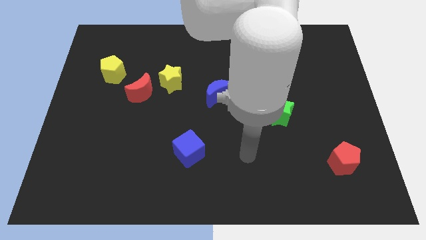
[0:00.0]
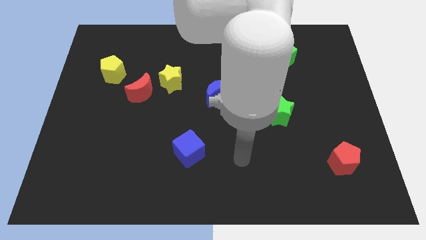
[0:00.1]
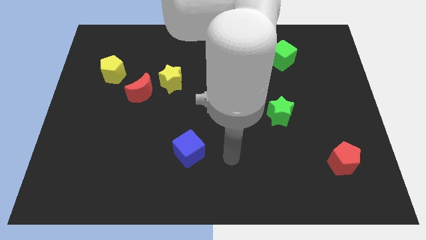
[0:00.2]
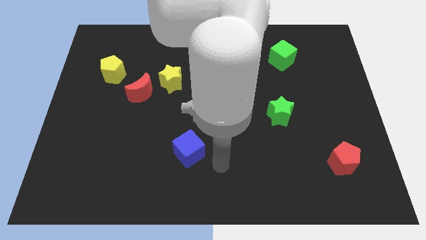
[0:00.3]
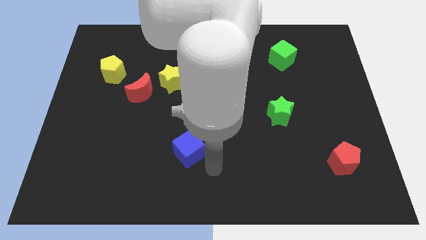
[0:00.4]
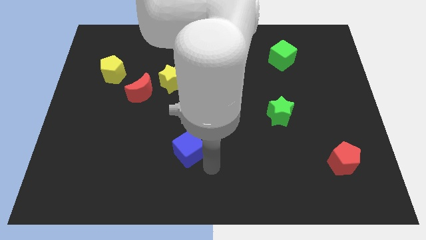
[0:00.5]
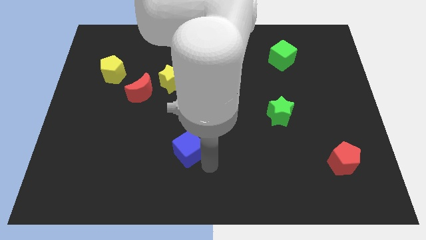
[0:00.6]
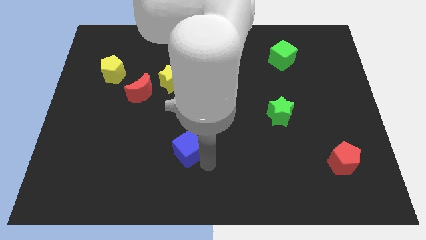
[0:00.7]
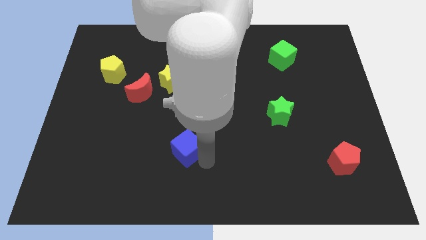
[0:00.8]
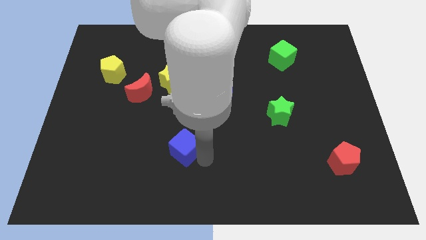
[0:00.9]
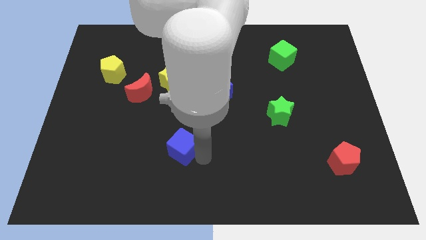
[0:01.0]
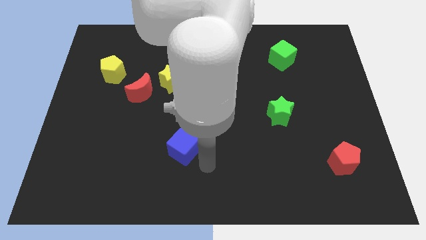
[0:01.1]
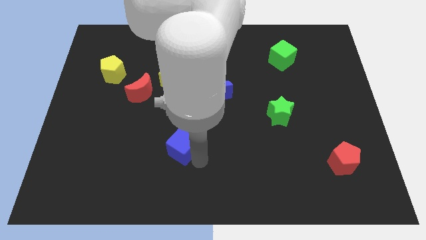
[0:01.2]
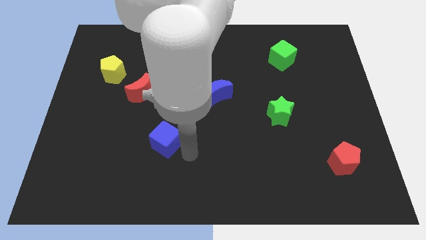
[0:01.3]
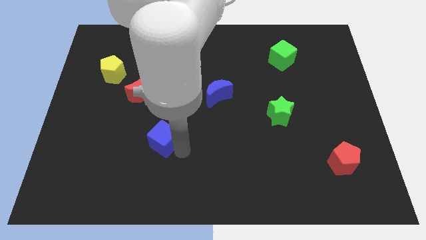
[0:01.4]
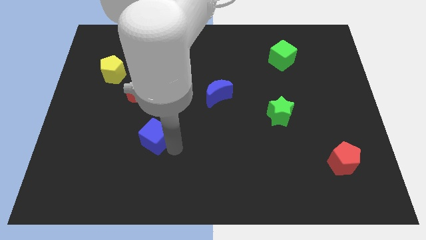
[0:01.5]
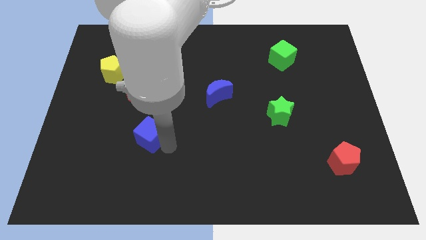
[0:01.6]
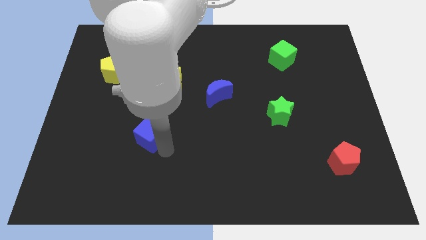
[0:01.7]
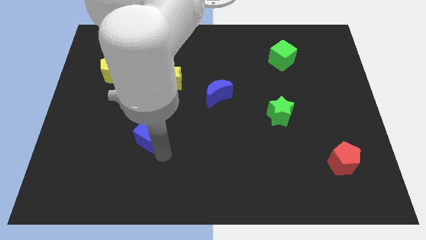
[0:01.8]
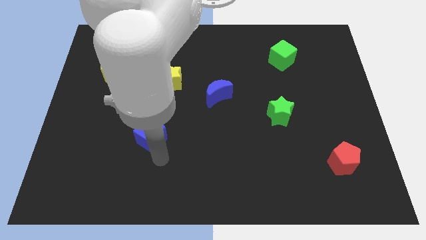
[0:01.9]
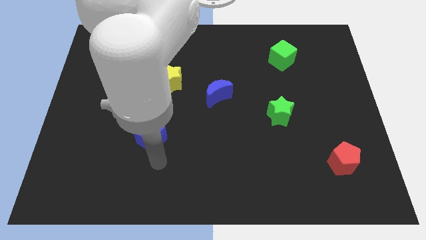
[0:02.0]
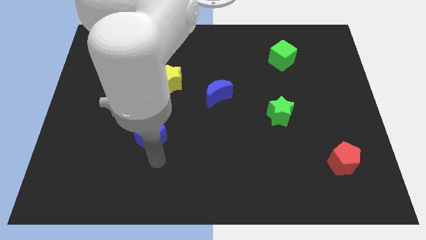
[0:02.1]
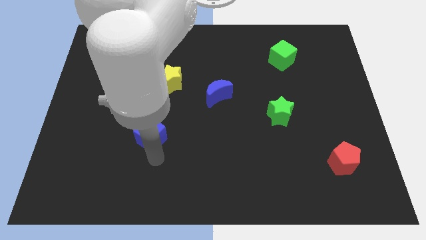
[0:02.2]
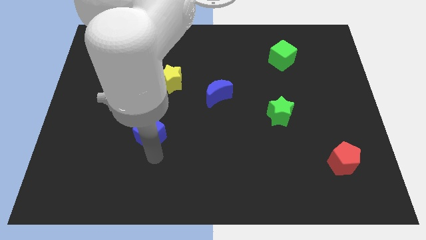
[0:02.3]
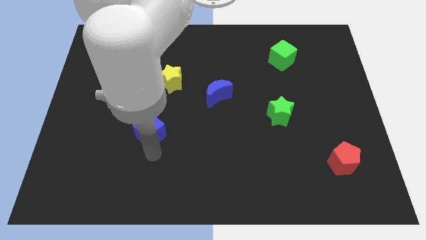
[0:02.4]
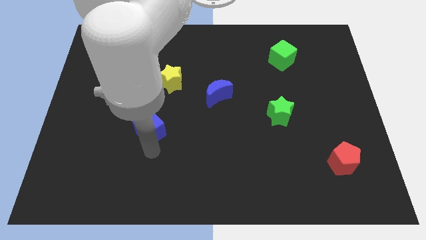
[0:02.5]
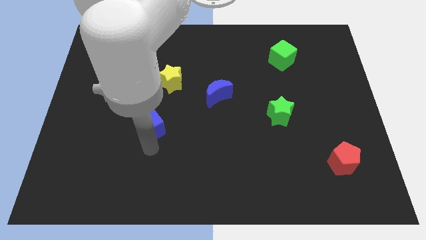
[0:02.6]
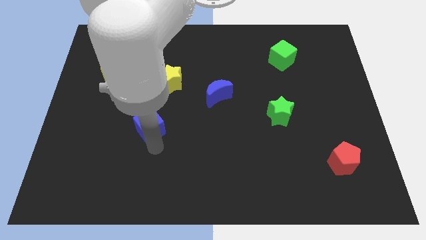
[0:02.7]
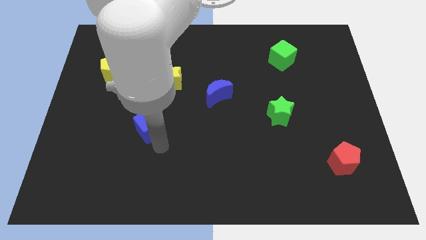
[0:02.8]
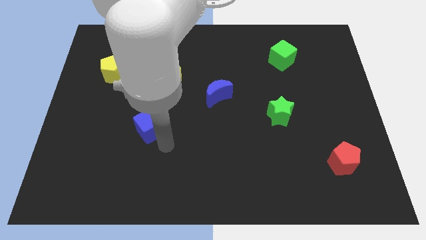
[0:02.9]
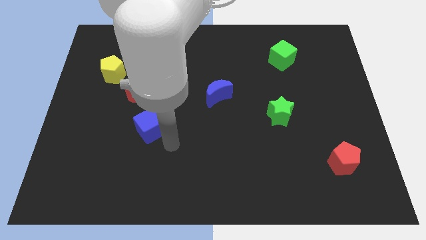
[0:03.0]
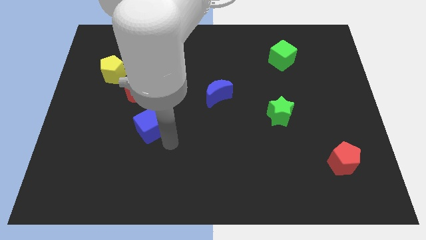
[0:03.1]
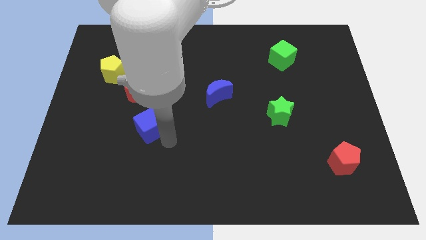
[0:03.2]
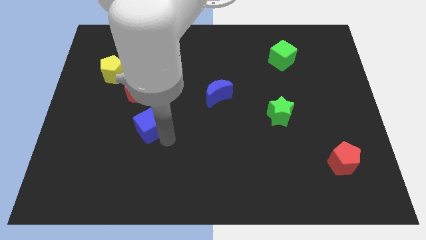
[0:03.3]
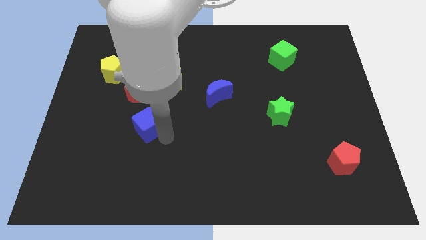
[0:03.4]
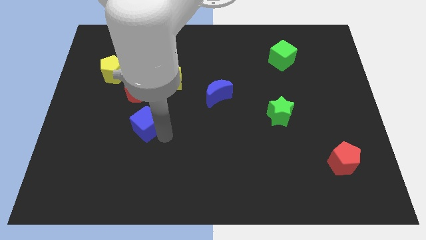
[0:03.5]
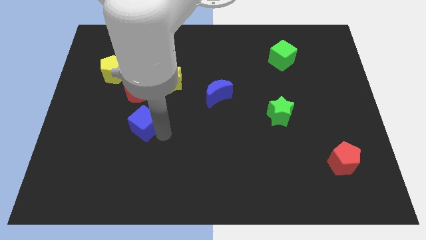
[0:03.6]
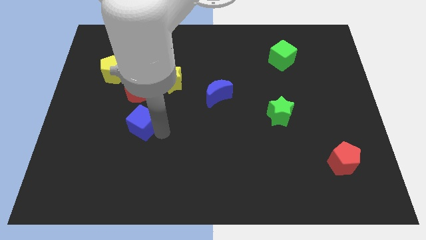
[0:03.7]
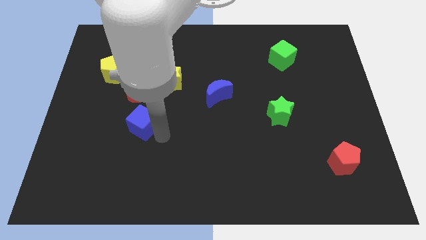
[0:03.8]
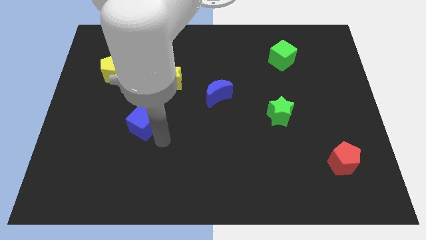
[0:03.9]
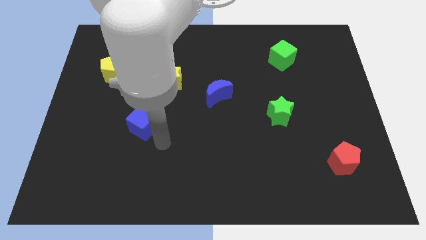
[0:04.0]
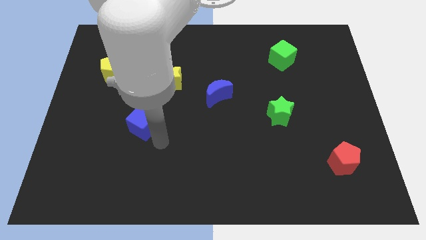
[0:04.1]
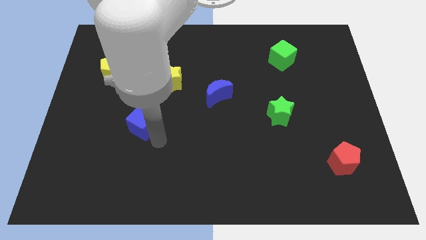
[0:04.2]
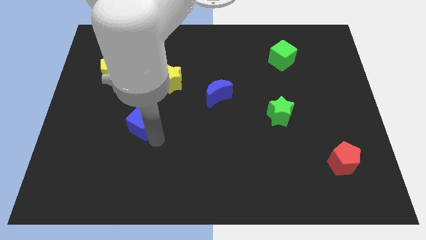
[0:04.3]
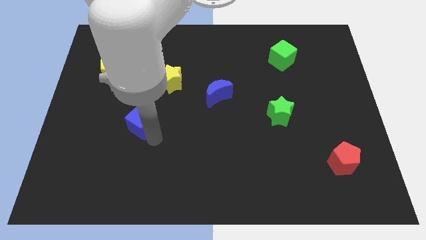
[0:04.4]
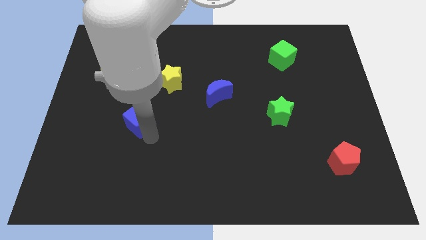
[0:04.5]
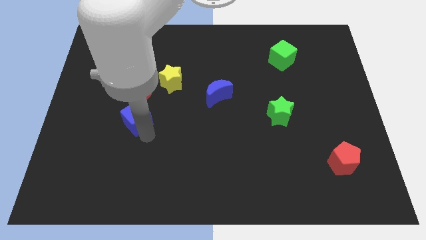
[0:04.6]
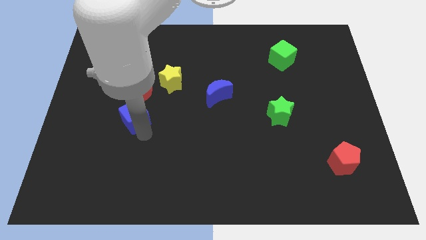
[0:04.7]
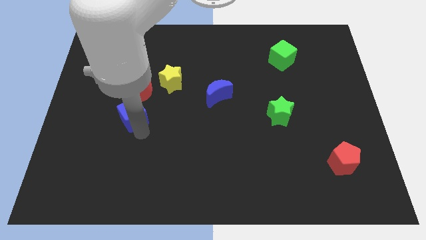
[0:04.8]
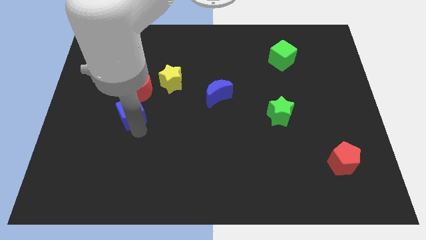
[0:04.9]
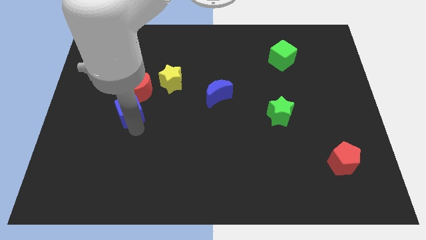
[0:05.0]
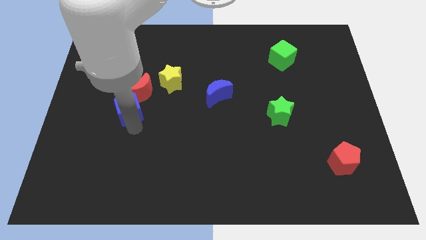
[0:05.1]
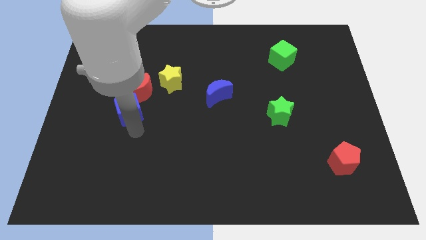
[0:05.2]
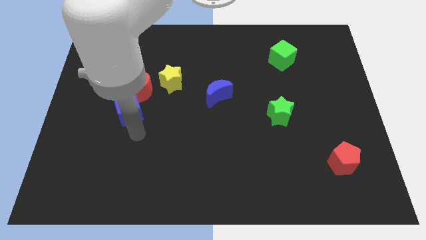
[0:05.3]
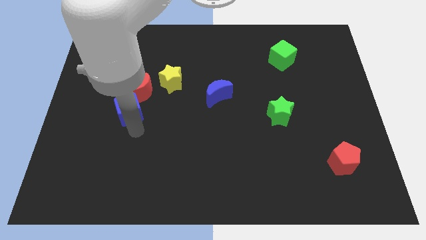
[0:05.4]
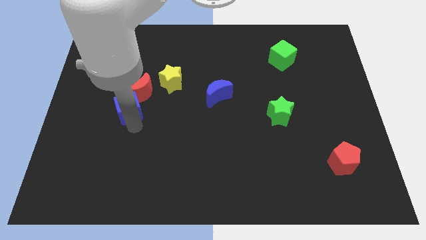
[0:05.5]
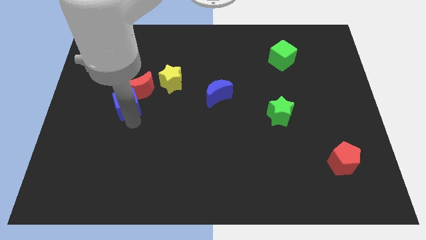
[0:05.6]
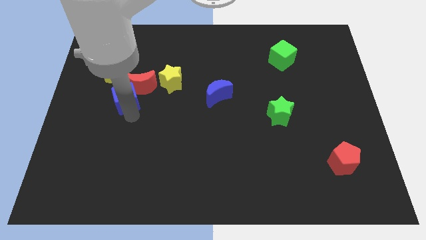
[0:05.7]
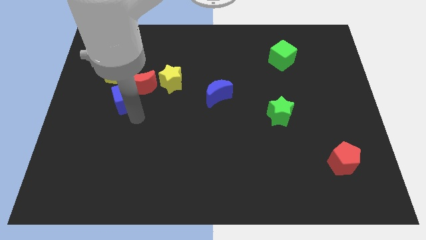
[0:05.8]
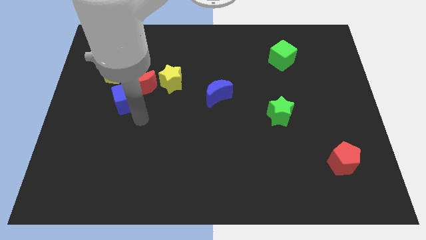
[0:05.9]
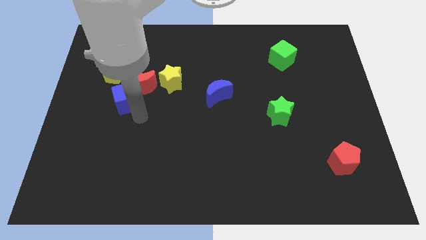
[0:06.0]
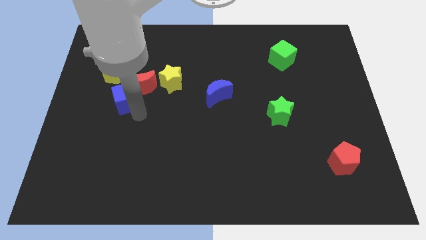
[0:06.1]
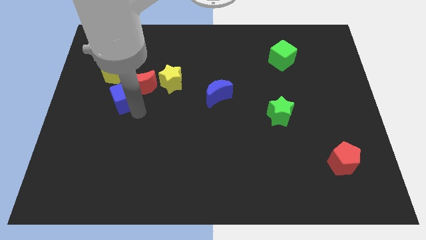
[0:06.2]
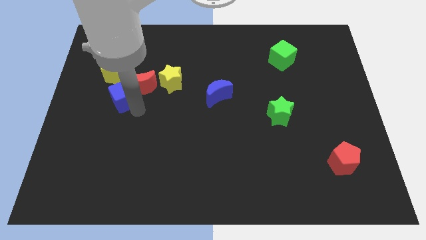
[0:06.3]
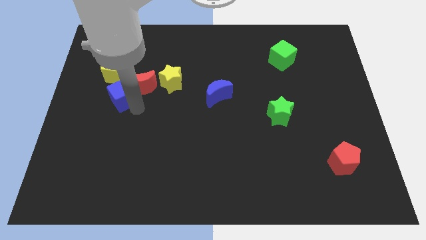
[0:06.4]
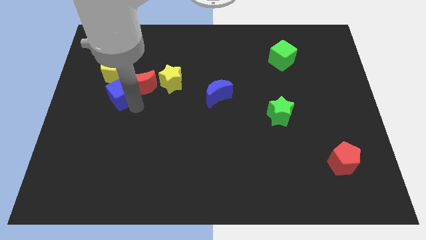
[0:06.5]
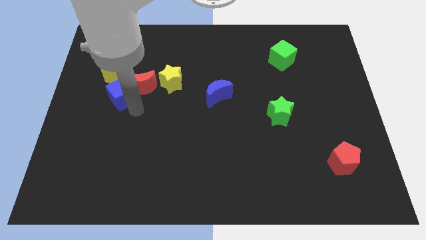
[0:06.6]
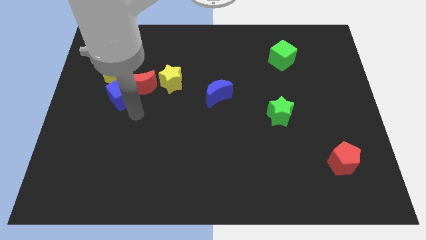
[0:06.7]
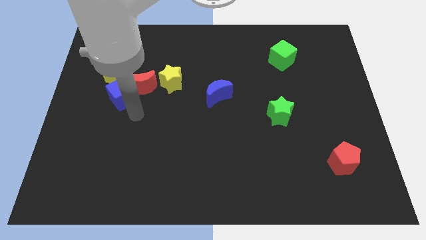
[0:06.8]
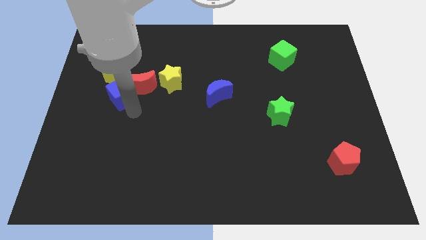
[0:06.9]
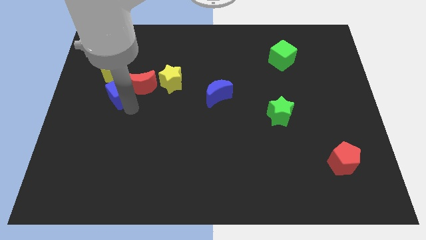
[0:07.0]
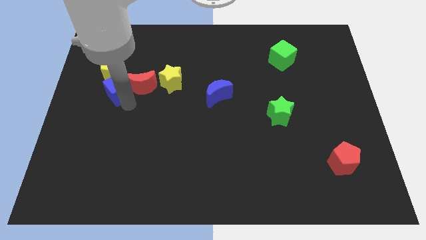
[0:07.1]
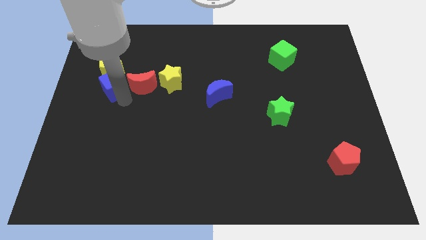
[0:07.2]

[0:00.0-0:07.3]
slide the blue cube close to the yellow pentagon
